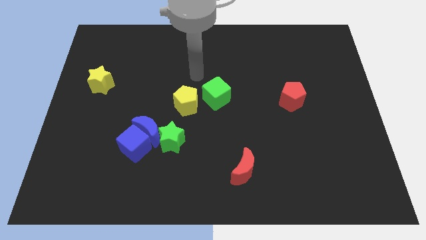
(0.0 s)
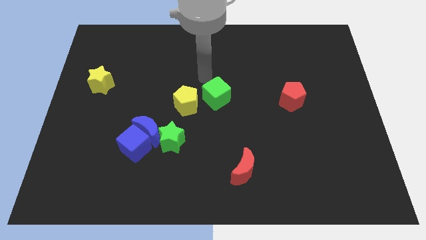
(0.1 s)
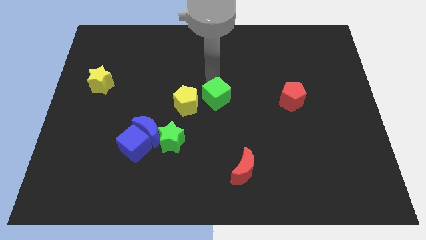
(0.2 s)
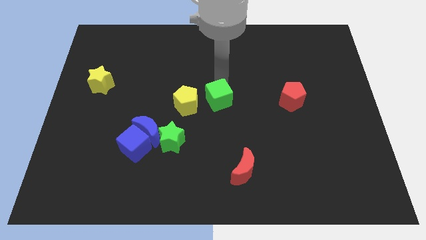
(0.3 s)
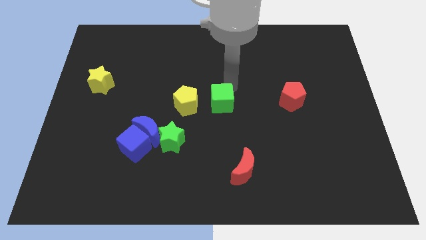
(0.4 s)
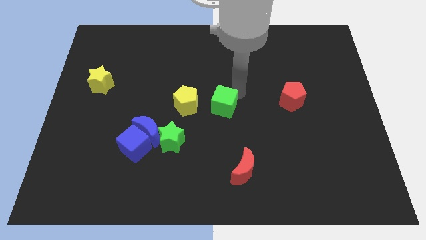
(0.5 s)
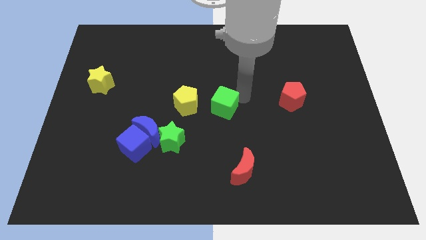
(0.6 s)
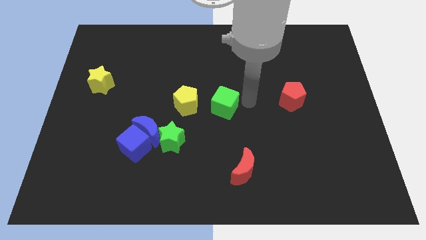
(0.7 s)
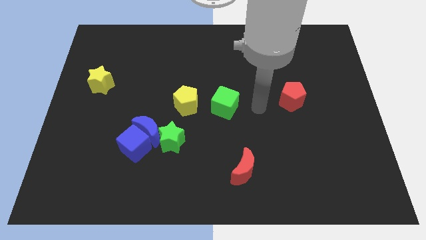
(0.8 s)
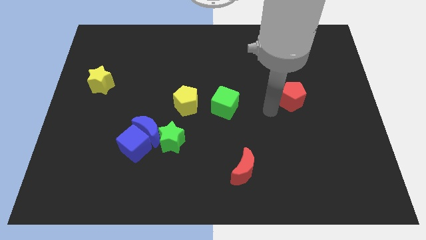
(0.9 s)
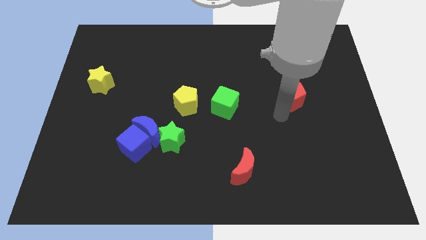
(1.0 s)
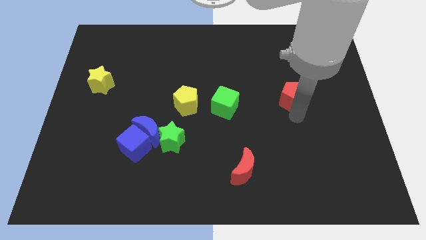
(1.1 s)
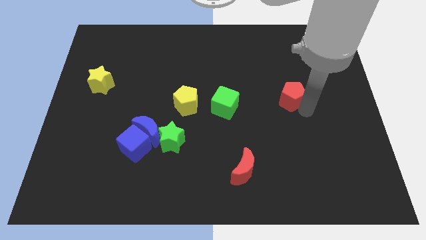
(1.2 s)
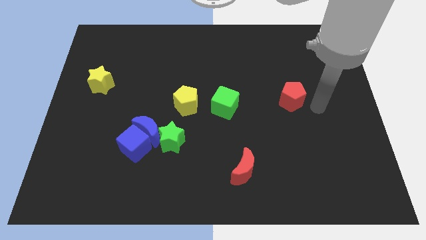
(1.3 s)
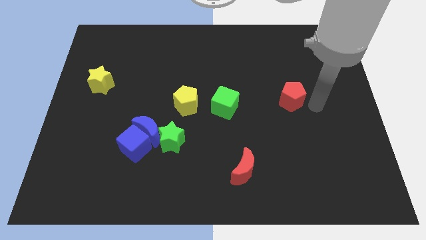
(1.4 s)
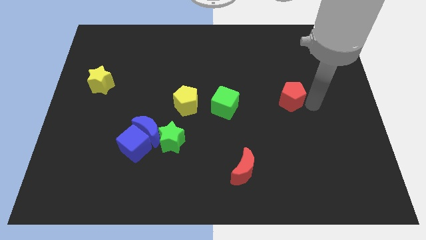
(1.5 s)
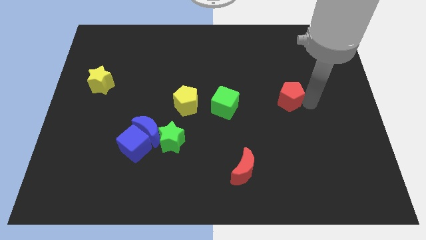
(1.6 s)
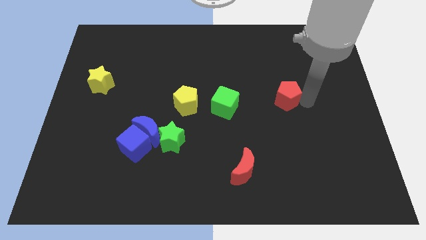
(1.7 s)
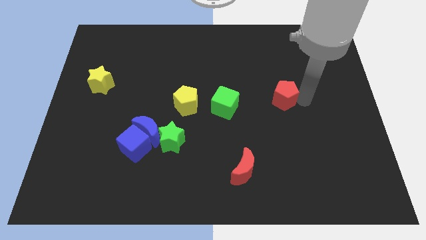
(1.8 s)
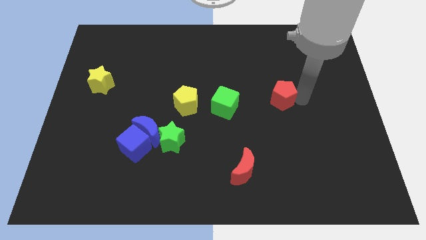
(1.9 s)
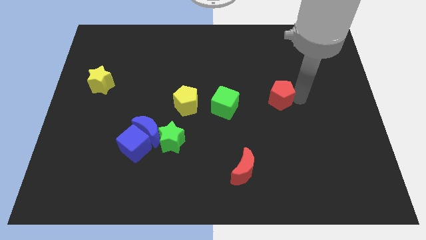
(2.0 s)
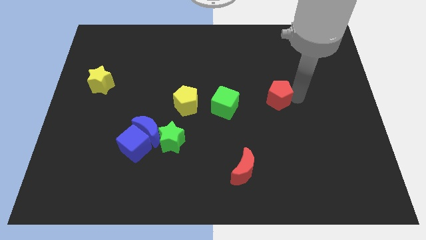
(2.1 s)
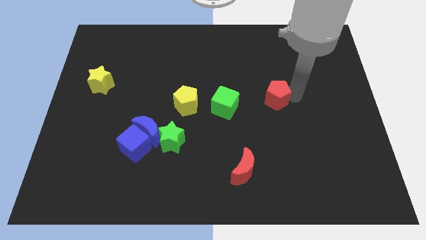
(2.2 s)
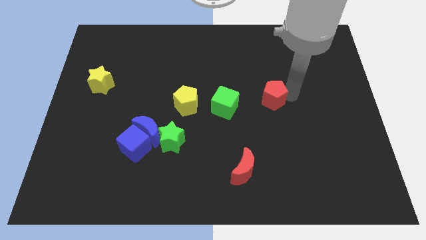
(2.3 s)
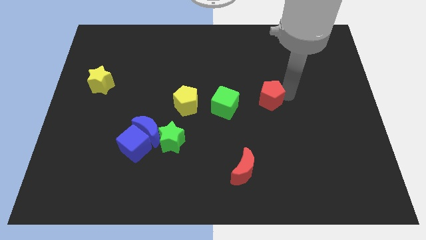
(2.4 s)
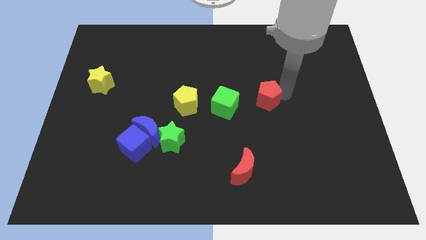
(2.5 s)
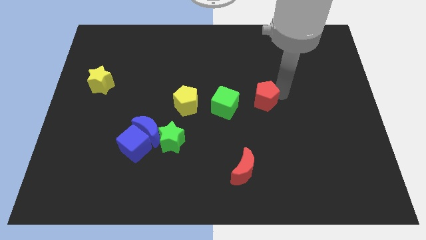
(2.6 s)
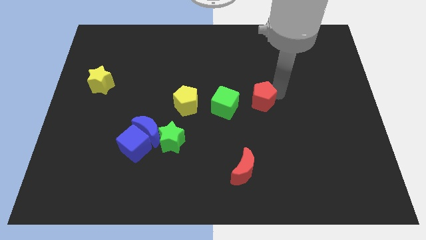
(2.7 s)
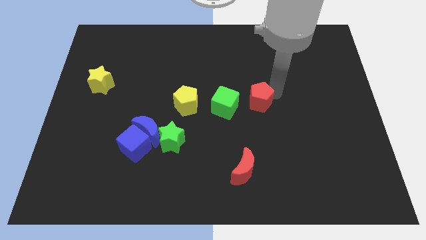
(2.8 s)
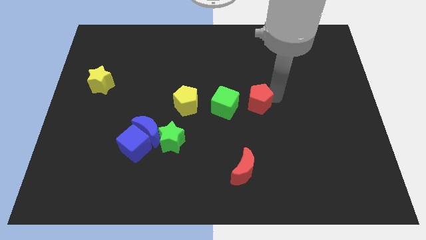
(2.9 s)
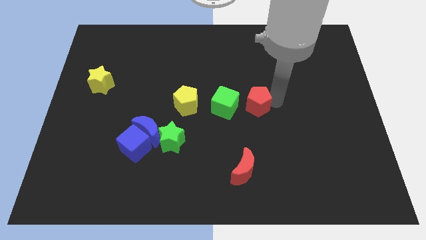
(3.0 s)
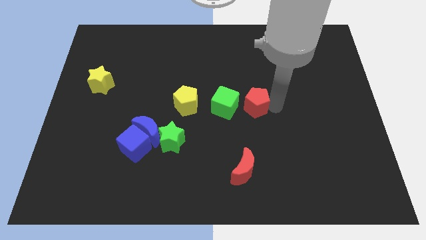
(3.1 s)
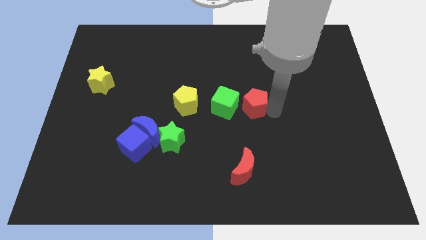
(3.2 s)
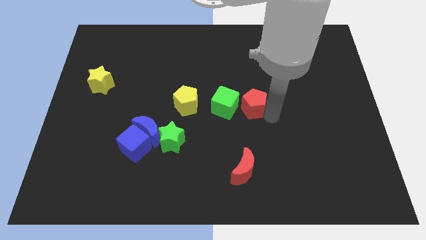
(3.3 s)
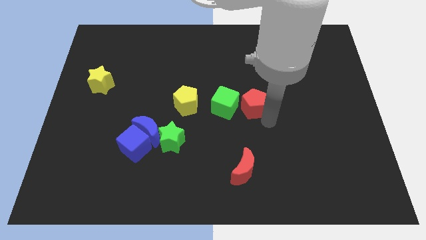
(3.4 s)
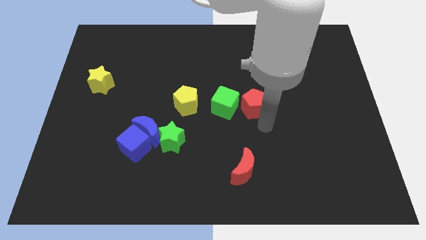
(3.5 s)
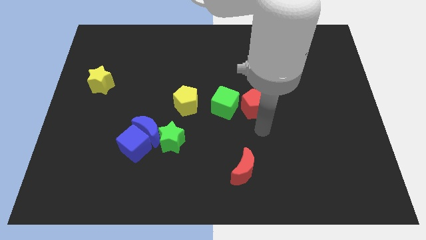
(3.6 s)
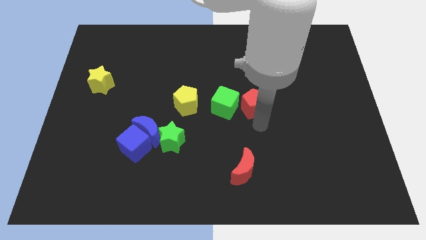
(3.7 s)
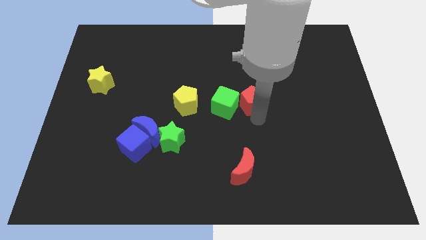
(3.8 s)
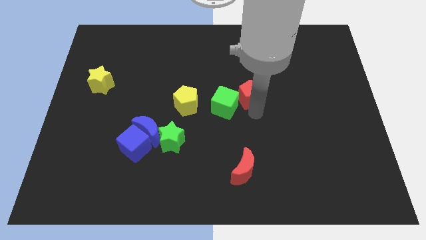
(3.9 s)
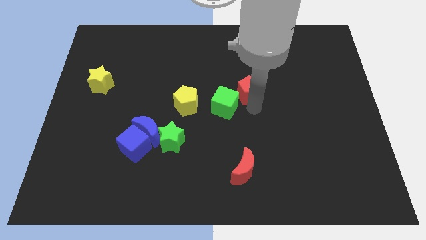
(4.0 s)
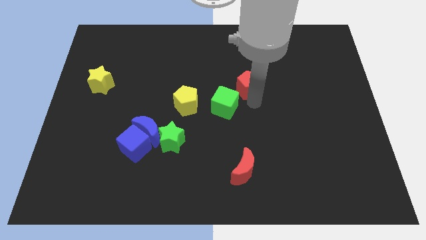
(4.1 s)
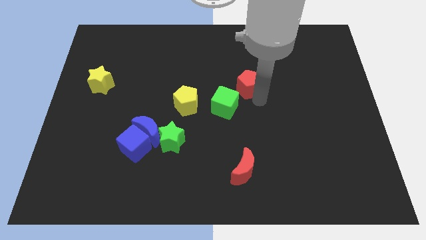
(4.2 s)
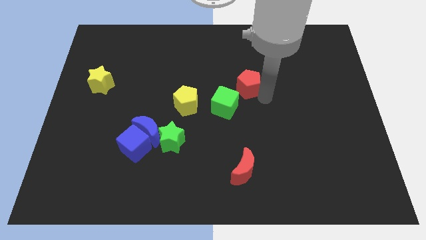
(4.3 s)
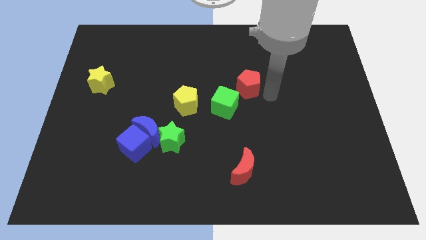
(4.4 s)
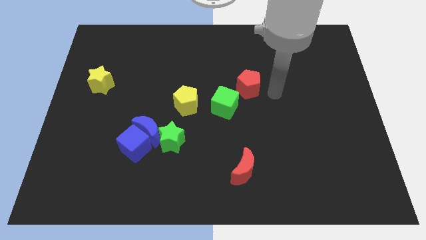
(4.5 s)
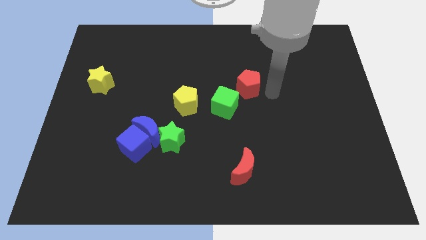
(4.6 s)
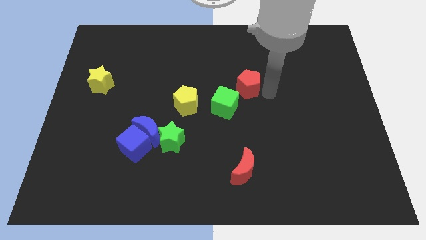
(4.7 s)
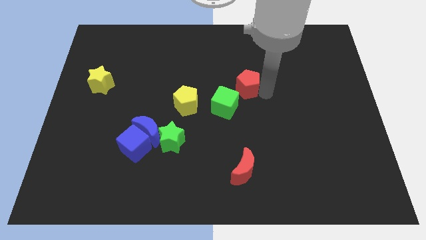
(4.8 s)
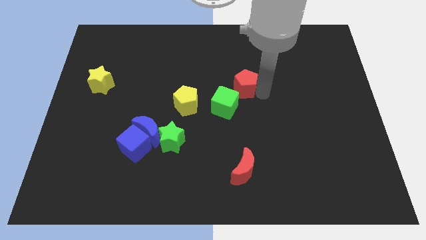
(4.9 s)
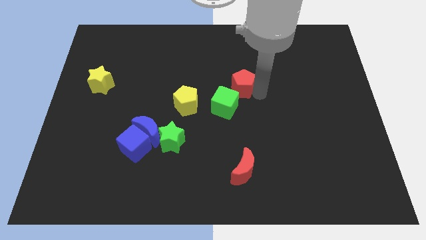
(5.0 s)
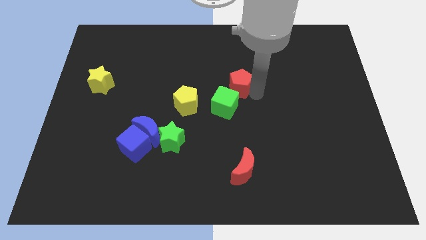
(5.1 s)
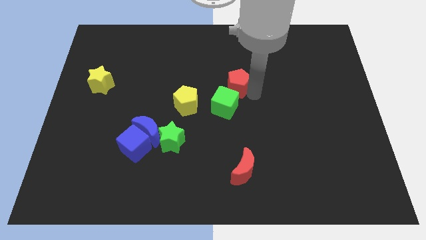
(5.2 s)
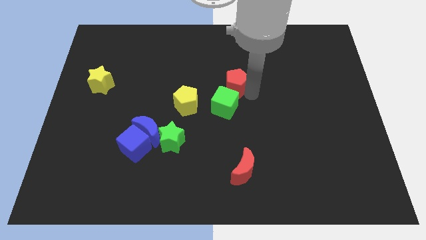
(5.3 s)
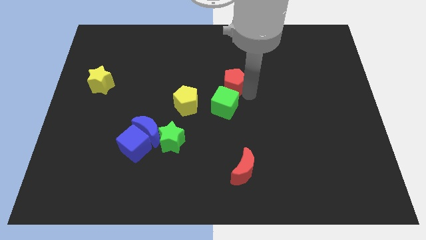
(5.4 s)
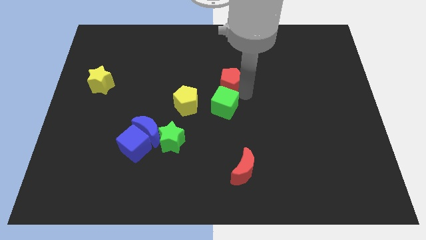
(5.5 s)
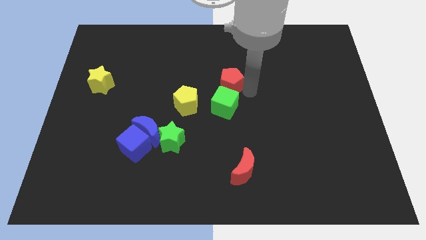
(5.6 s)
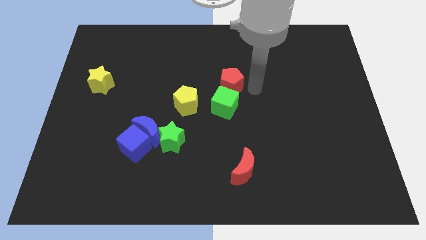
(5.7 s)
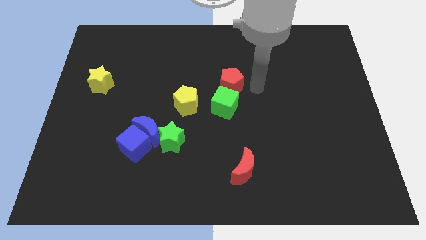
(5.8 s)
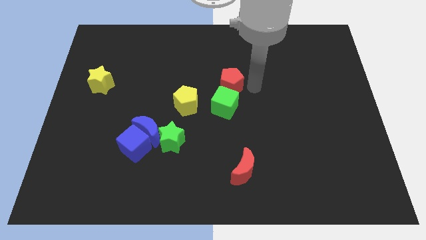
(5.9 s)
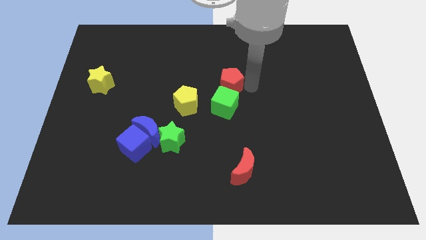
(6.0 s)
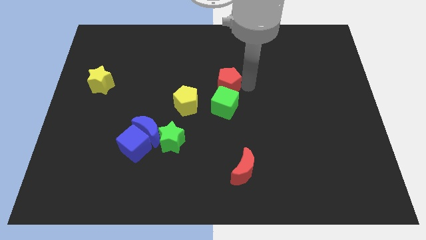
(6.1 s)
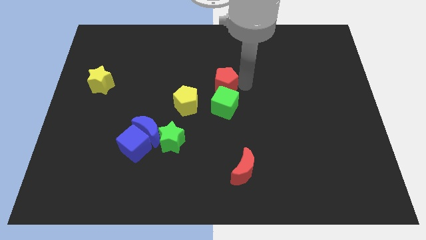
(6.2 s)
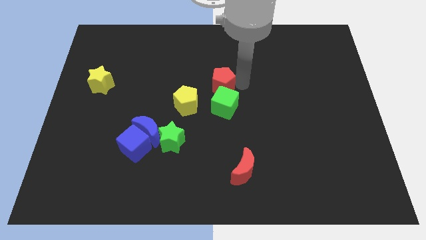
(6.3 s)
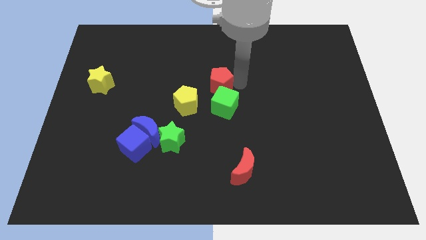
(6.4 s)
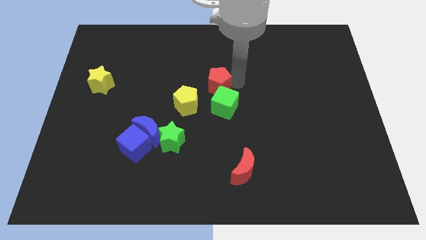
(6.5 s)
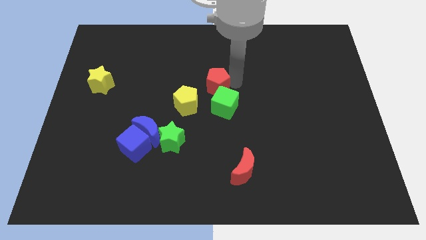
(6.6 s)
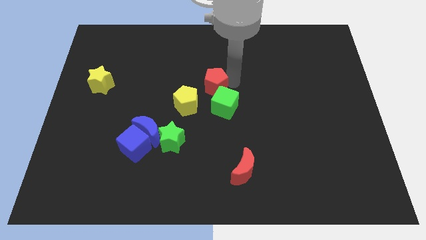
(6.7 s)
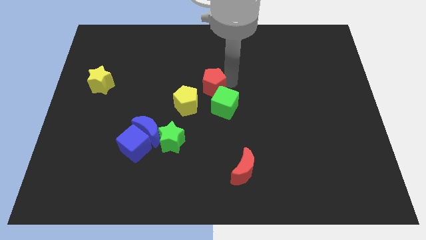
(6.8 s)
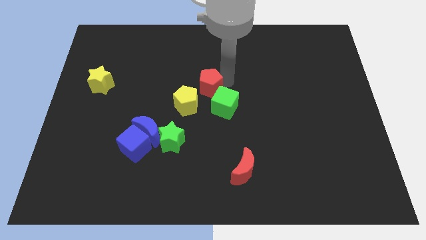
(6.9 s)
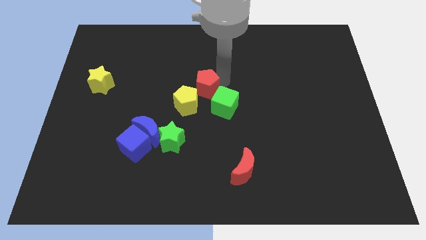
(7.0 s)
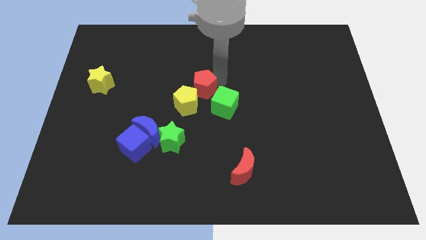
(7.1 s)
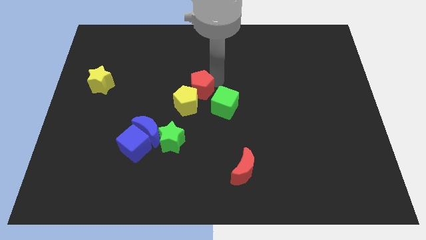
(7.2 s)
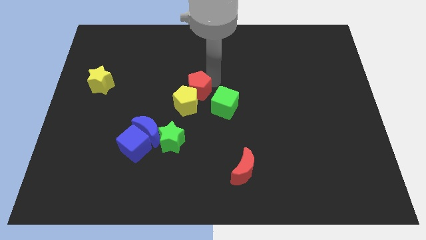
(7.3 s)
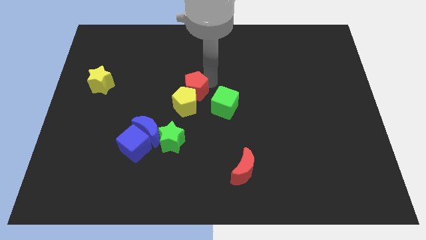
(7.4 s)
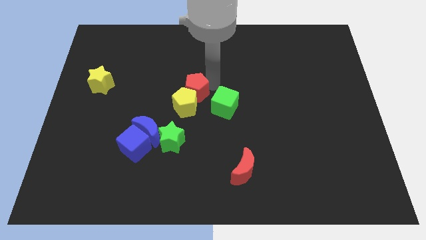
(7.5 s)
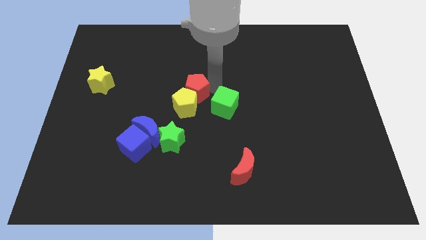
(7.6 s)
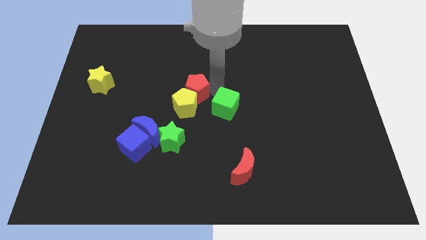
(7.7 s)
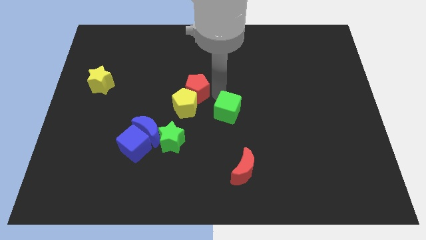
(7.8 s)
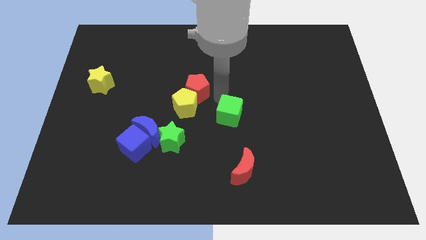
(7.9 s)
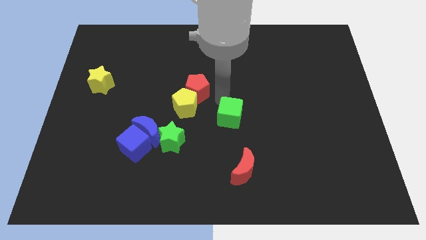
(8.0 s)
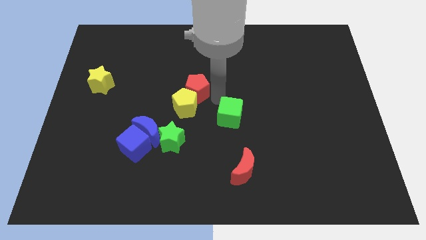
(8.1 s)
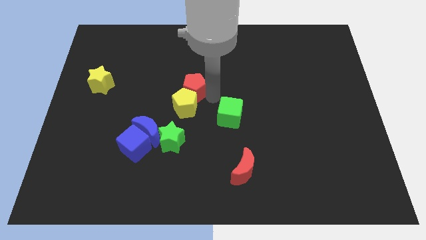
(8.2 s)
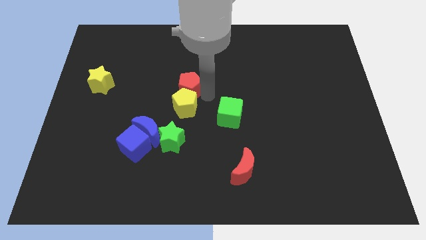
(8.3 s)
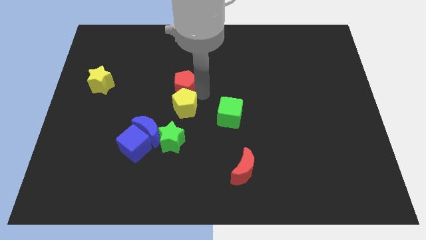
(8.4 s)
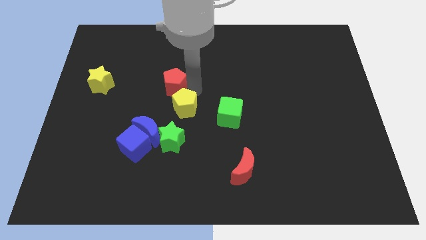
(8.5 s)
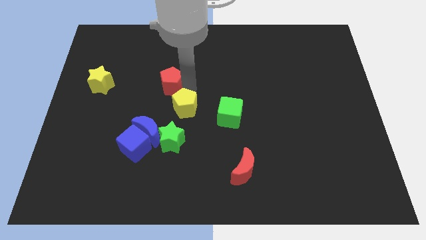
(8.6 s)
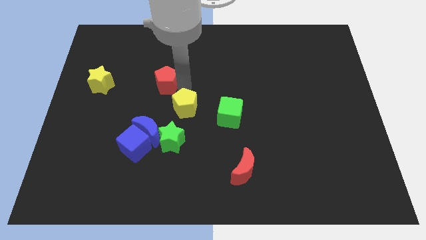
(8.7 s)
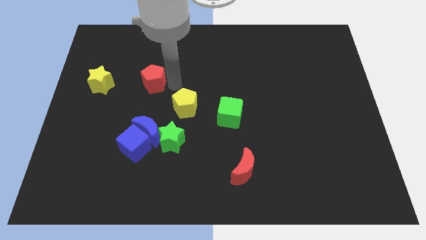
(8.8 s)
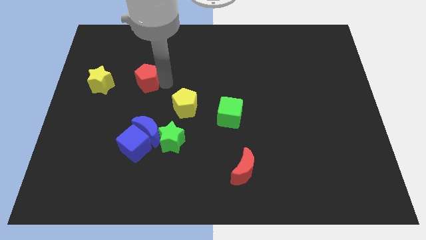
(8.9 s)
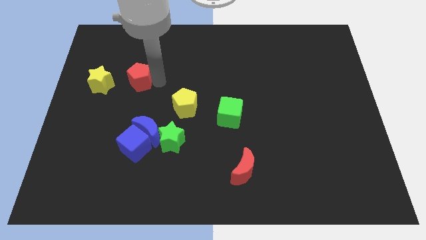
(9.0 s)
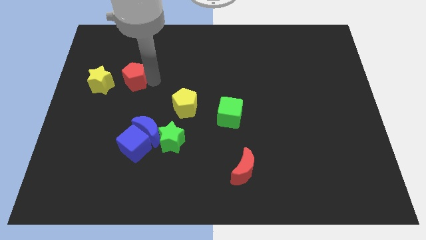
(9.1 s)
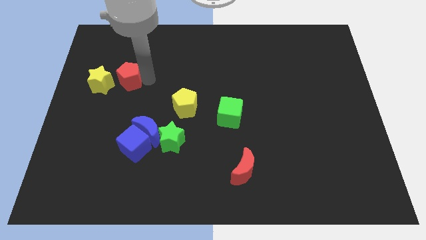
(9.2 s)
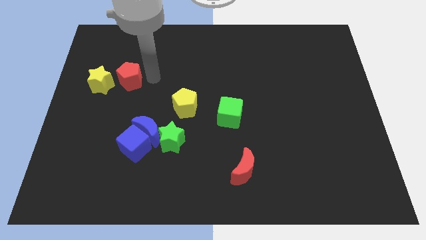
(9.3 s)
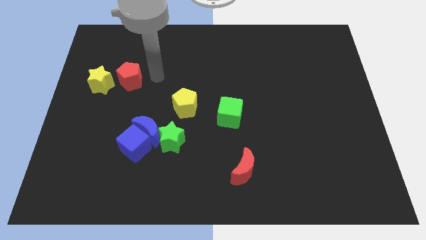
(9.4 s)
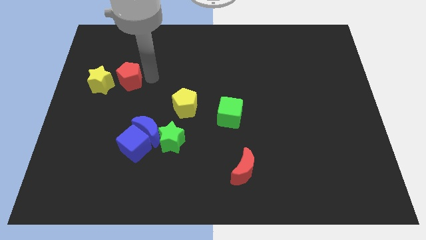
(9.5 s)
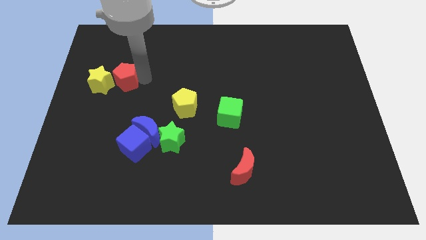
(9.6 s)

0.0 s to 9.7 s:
put the red pentagon to the yellow star
